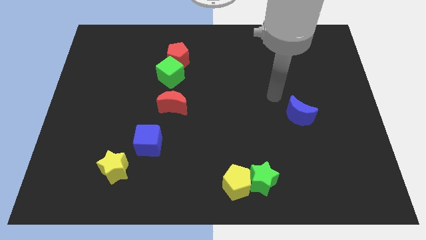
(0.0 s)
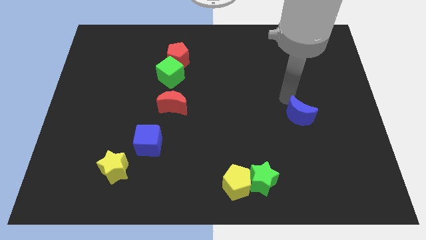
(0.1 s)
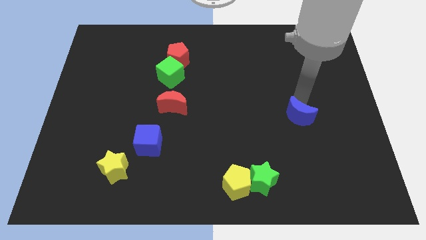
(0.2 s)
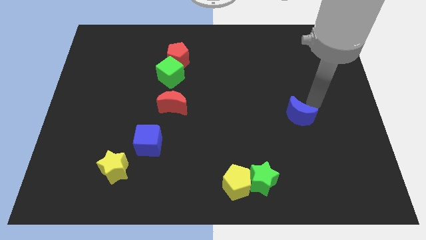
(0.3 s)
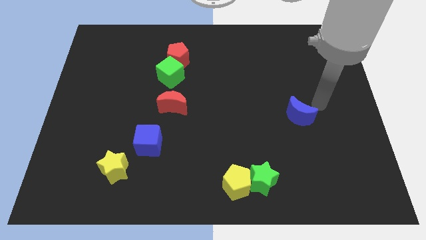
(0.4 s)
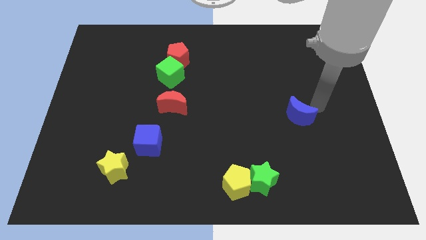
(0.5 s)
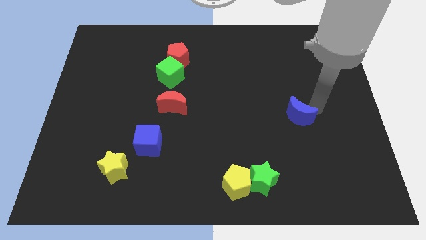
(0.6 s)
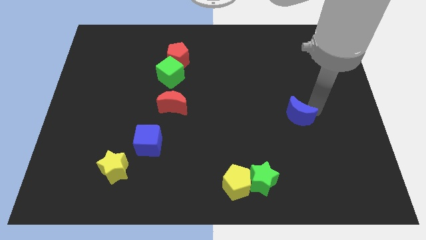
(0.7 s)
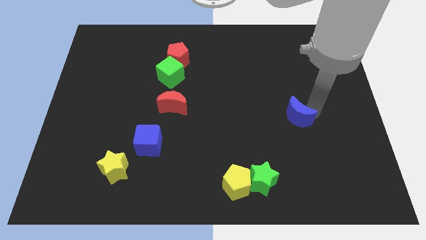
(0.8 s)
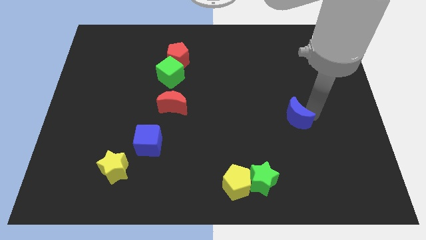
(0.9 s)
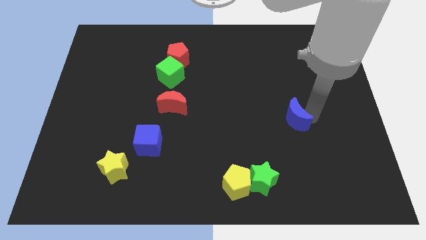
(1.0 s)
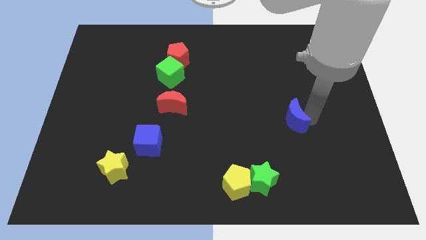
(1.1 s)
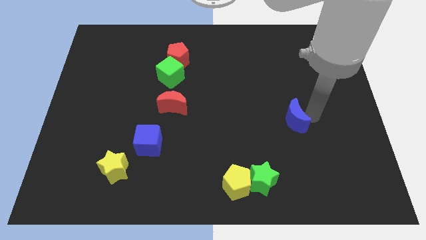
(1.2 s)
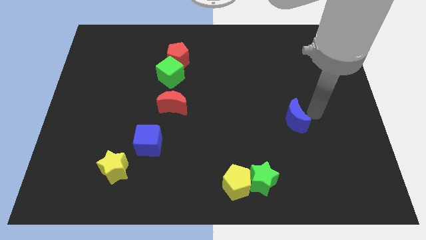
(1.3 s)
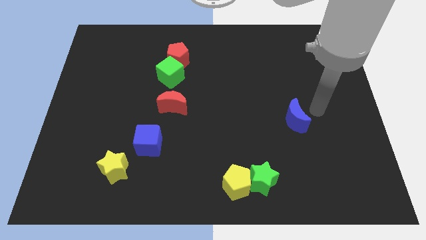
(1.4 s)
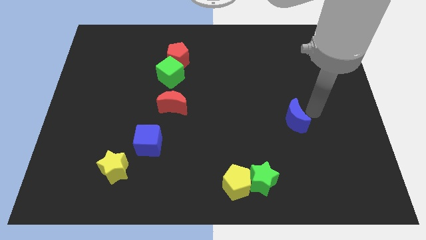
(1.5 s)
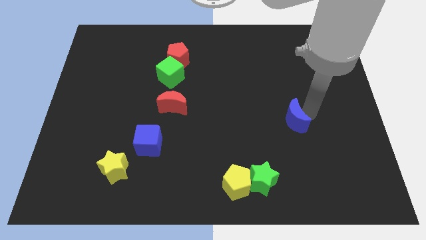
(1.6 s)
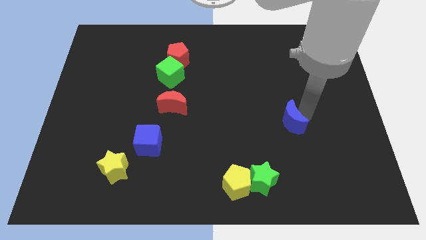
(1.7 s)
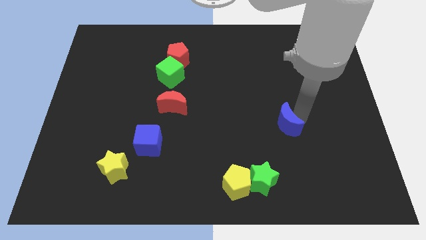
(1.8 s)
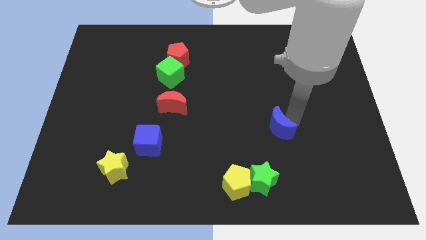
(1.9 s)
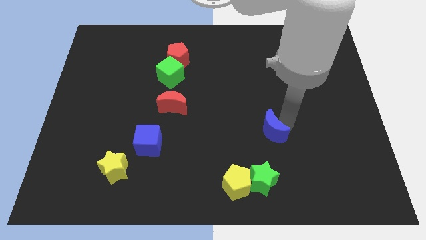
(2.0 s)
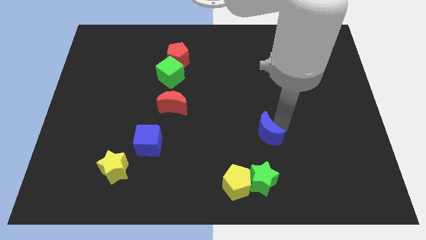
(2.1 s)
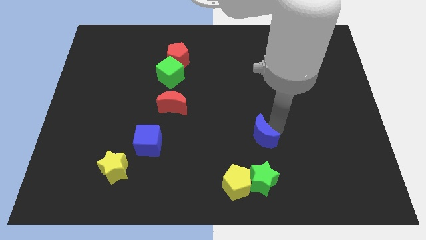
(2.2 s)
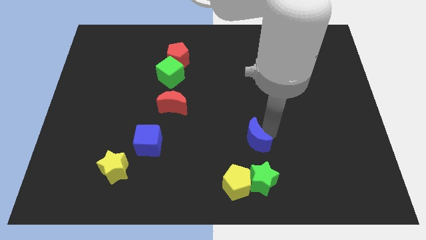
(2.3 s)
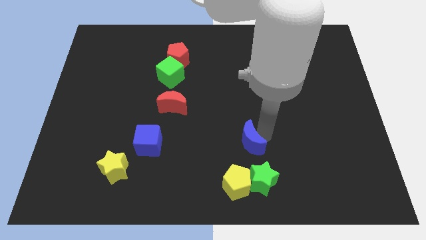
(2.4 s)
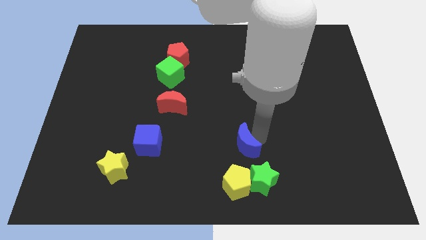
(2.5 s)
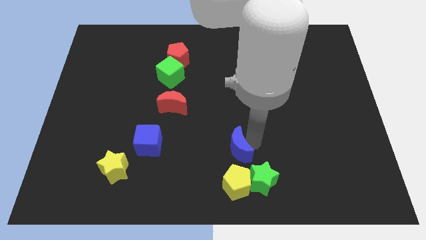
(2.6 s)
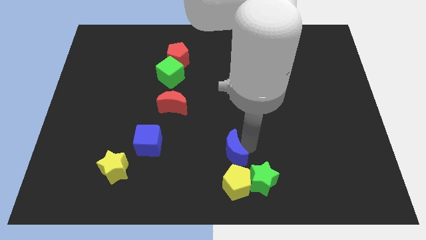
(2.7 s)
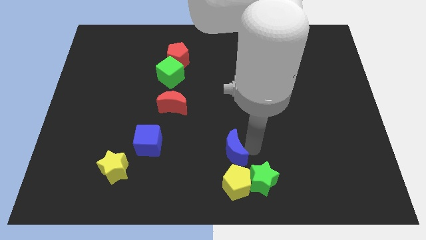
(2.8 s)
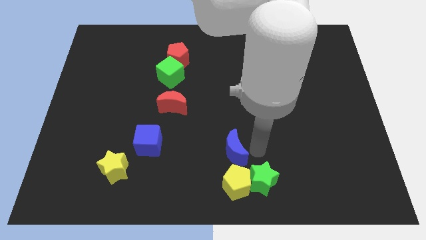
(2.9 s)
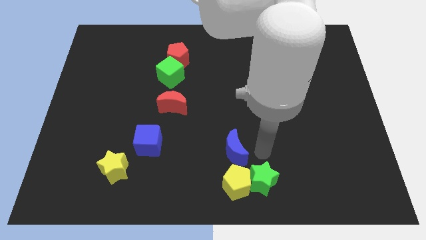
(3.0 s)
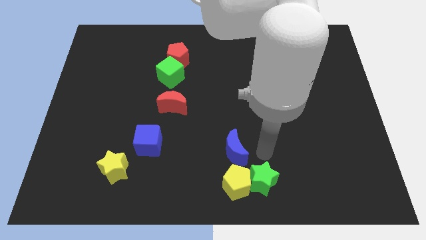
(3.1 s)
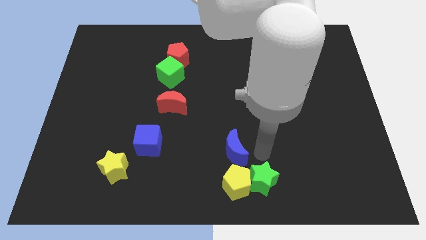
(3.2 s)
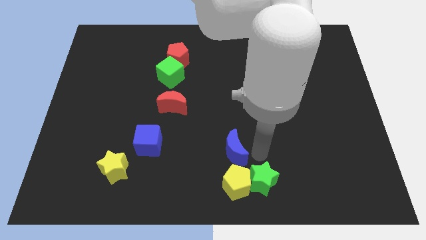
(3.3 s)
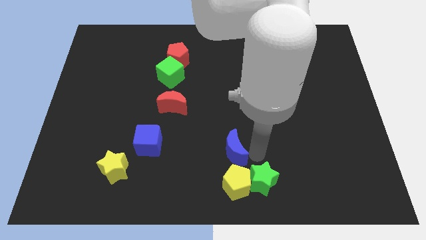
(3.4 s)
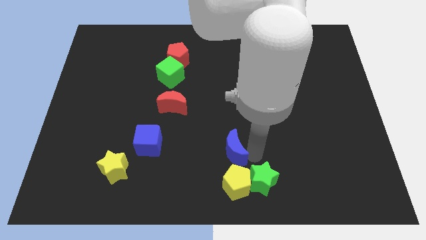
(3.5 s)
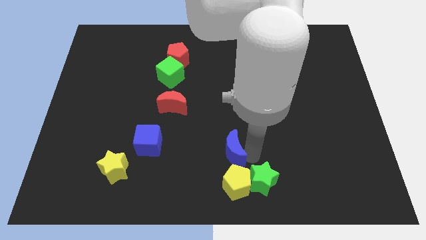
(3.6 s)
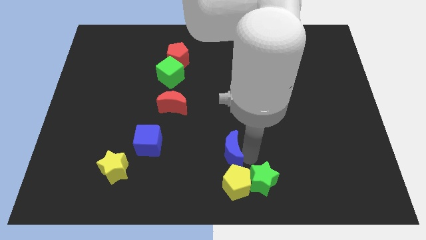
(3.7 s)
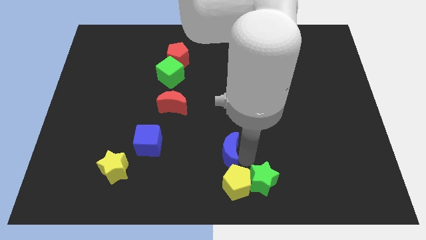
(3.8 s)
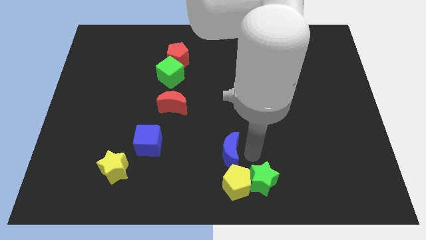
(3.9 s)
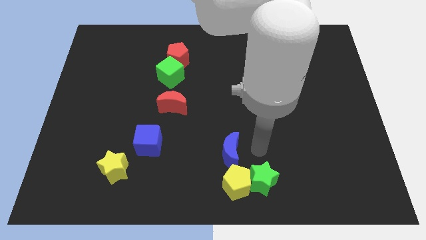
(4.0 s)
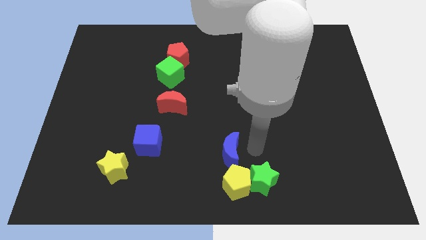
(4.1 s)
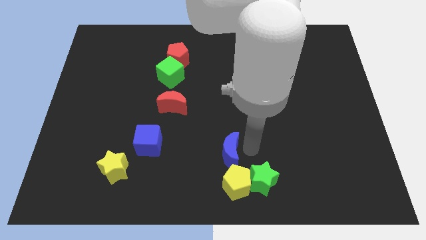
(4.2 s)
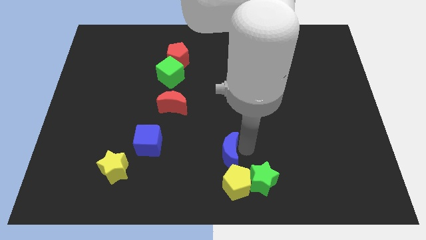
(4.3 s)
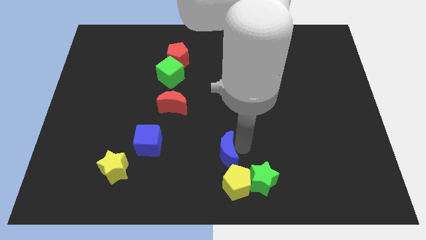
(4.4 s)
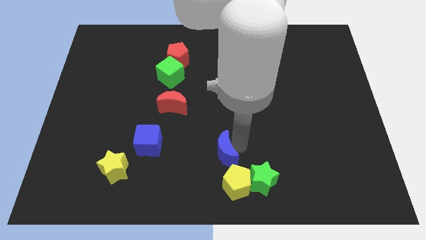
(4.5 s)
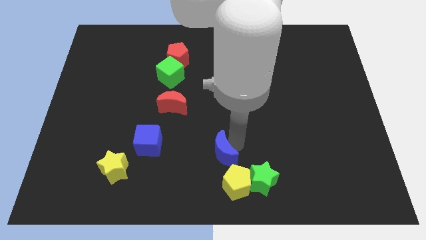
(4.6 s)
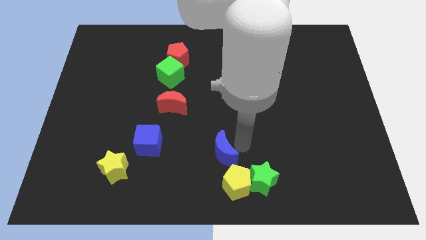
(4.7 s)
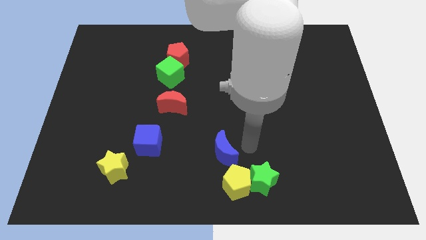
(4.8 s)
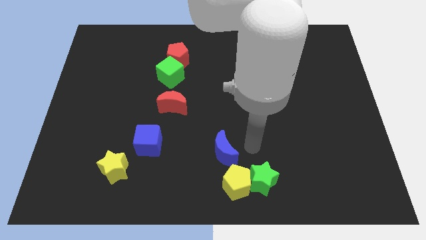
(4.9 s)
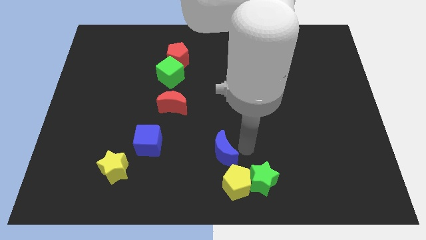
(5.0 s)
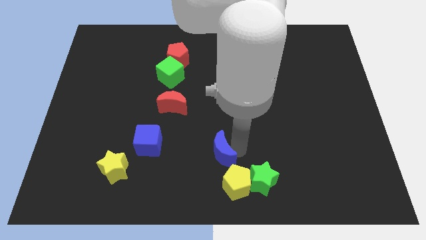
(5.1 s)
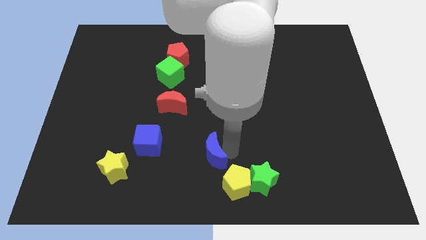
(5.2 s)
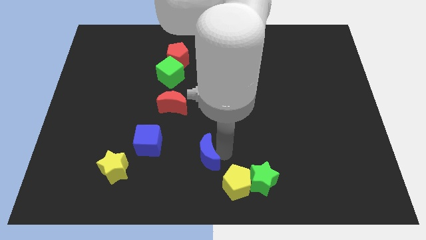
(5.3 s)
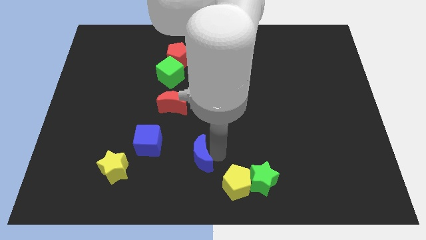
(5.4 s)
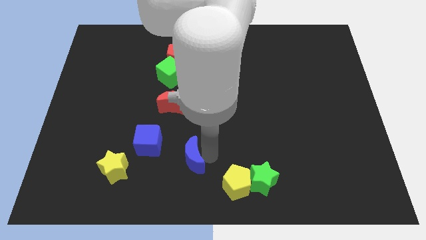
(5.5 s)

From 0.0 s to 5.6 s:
move the blue moon to the bottom right side of the blue cube
